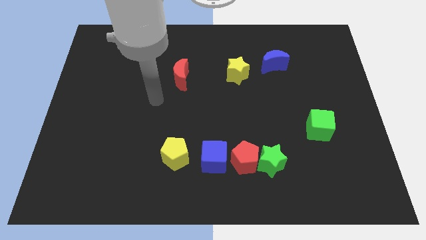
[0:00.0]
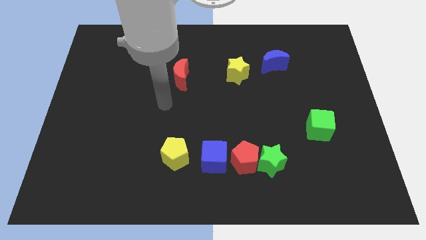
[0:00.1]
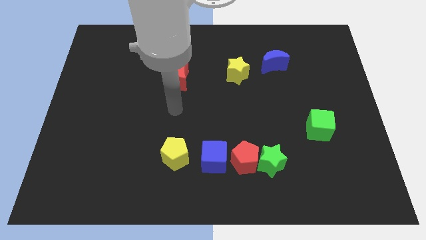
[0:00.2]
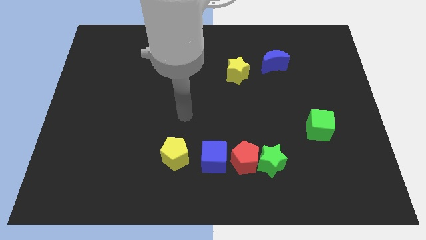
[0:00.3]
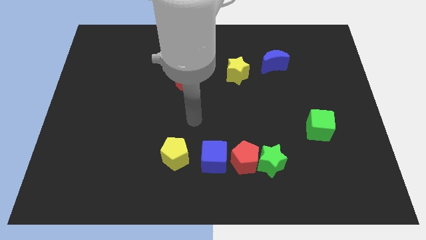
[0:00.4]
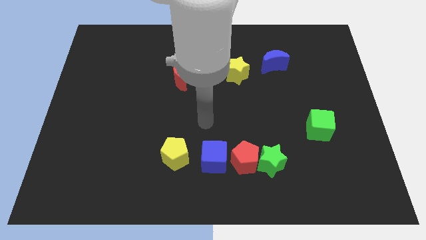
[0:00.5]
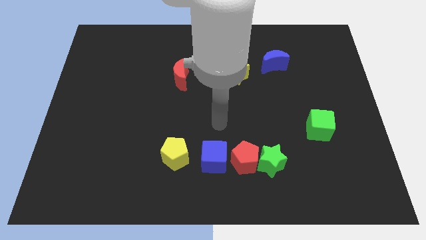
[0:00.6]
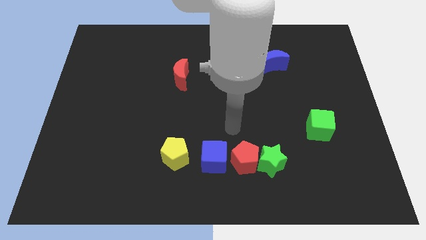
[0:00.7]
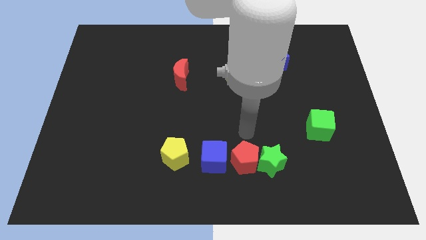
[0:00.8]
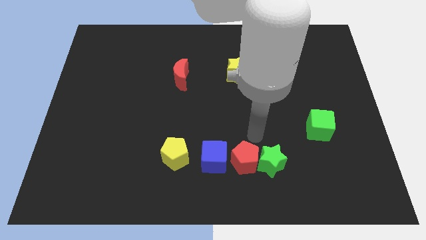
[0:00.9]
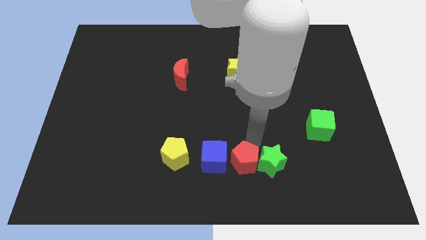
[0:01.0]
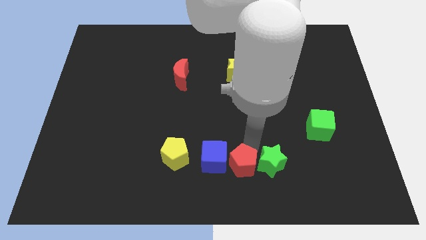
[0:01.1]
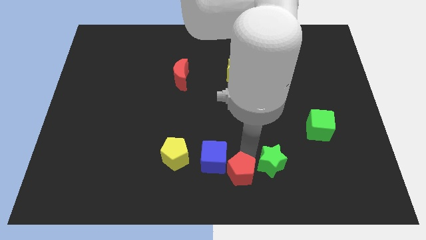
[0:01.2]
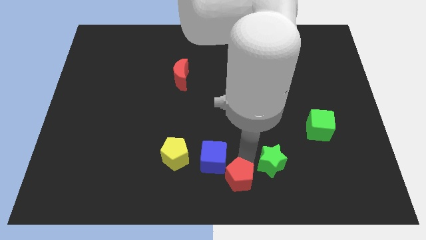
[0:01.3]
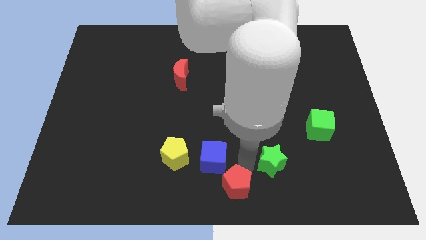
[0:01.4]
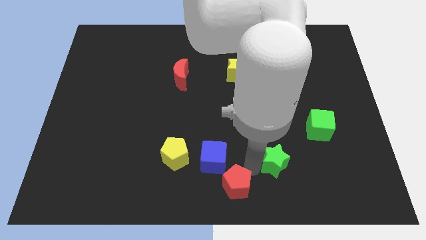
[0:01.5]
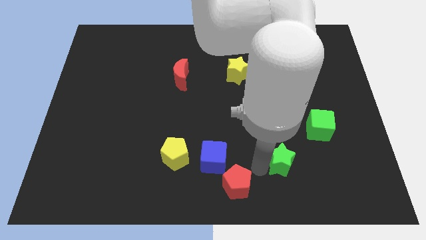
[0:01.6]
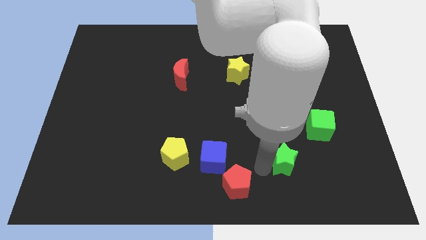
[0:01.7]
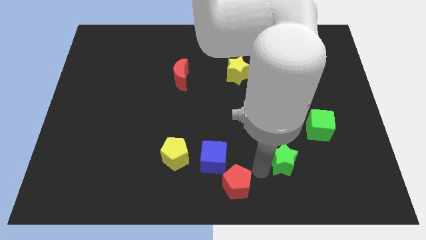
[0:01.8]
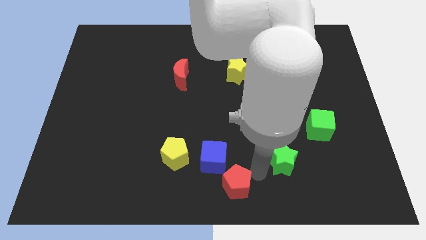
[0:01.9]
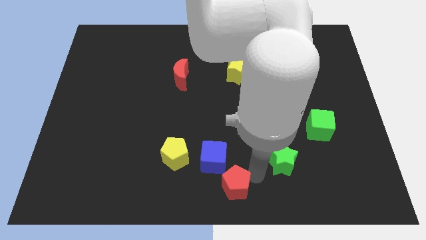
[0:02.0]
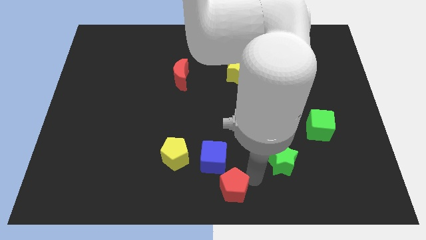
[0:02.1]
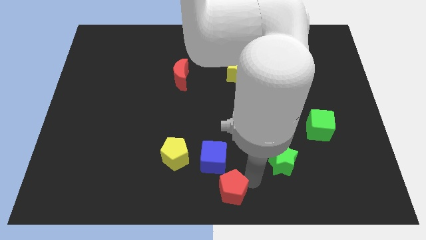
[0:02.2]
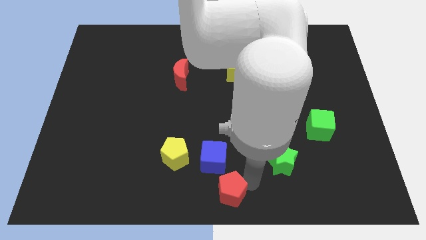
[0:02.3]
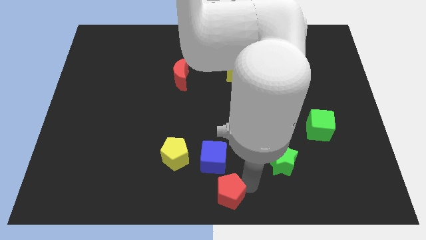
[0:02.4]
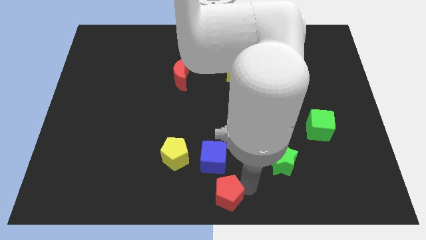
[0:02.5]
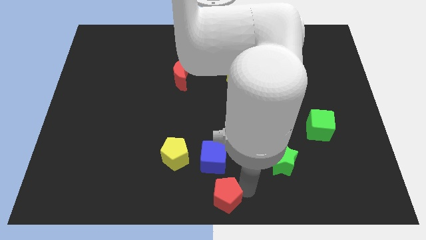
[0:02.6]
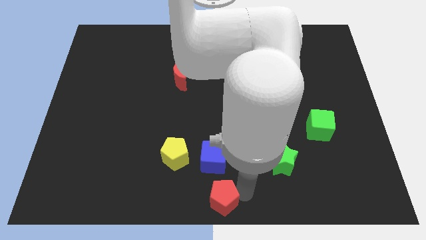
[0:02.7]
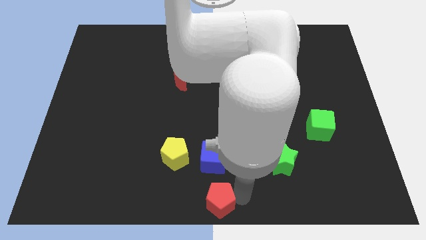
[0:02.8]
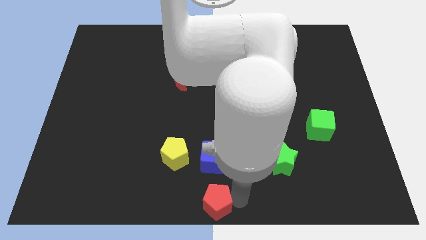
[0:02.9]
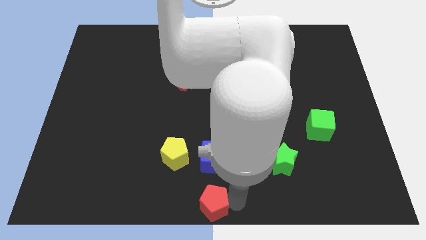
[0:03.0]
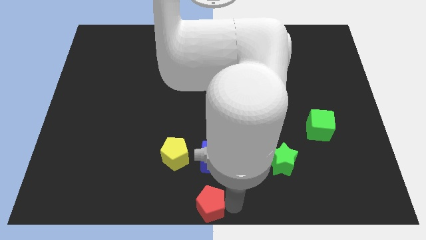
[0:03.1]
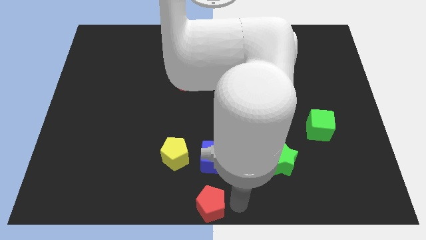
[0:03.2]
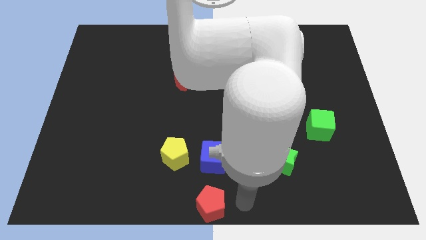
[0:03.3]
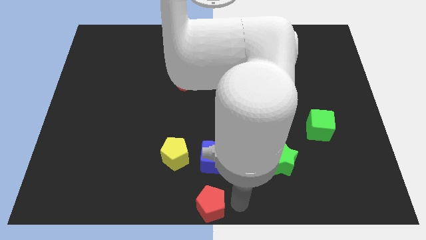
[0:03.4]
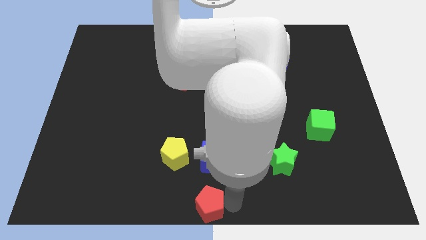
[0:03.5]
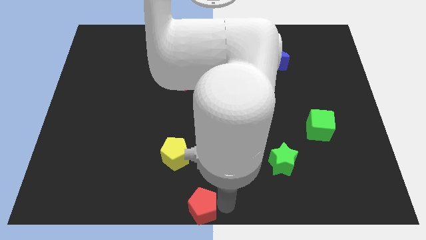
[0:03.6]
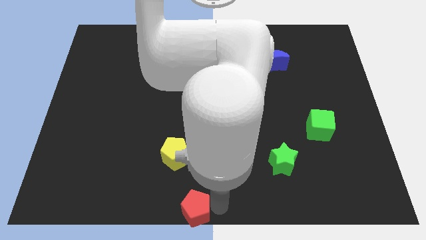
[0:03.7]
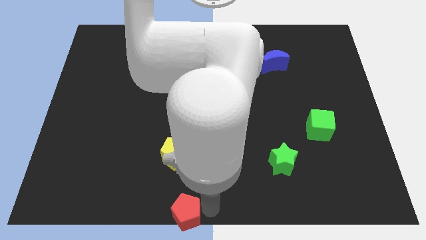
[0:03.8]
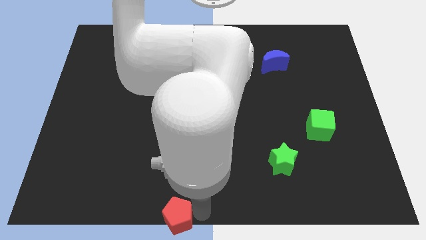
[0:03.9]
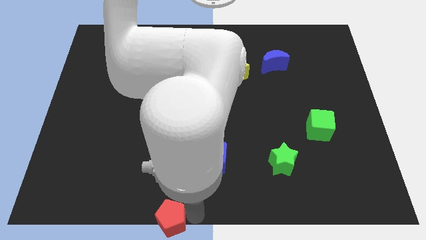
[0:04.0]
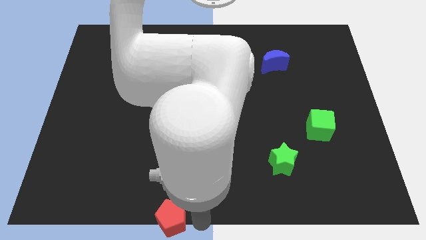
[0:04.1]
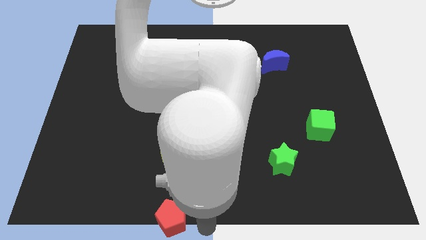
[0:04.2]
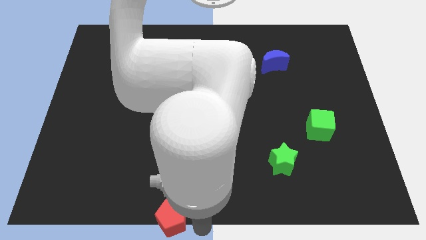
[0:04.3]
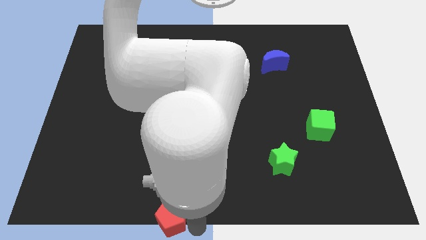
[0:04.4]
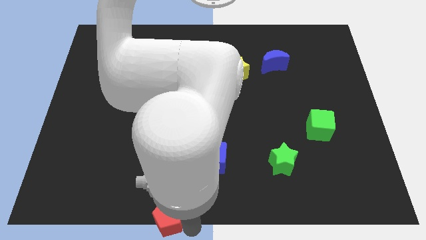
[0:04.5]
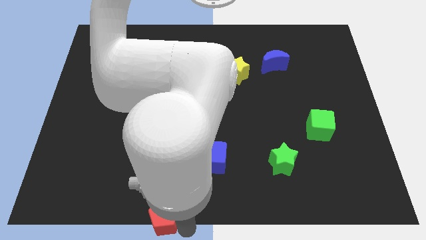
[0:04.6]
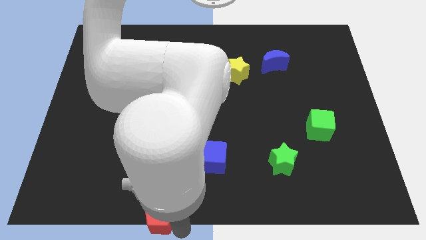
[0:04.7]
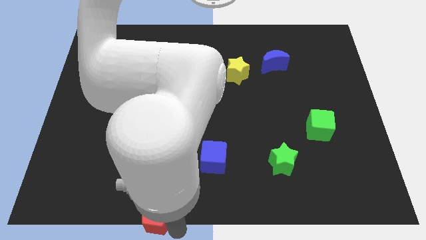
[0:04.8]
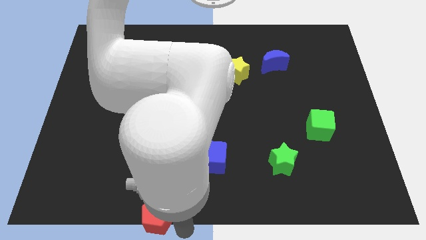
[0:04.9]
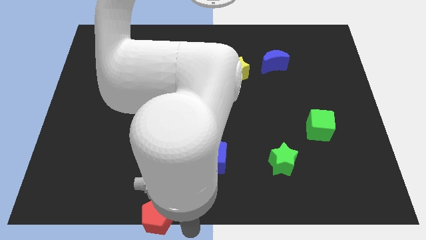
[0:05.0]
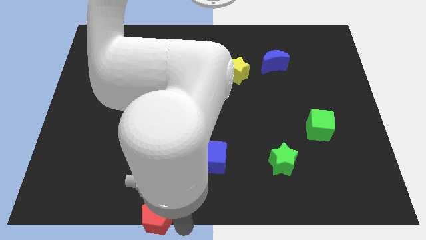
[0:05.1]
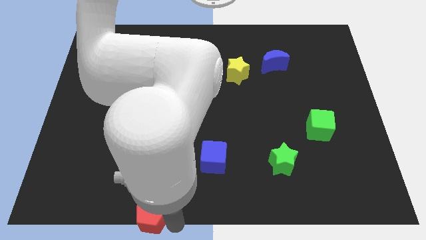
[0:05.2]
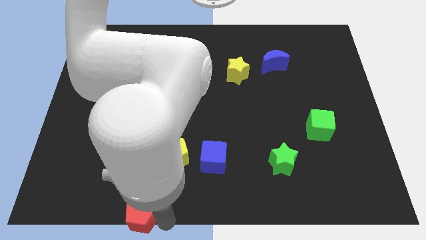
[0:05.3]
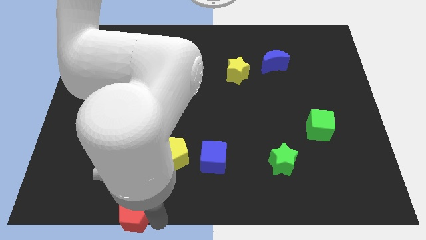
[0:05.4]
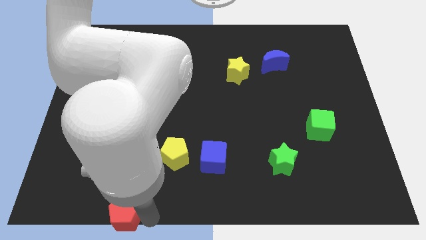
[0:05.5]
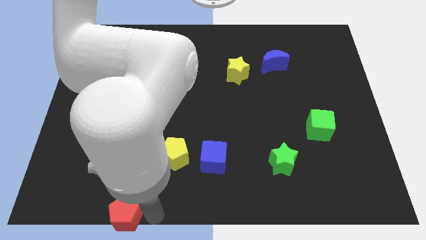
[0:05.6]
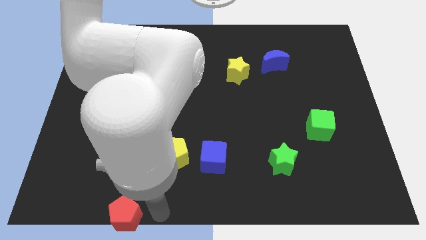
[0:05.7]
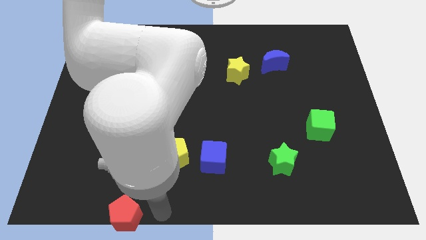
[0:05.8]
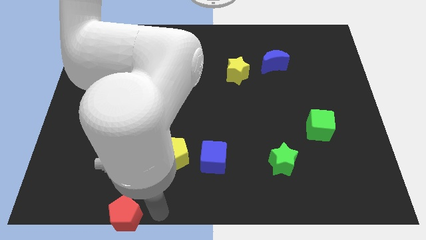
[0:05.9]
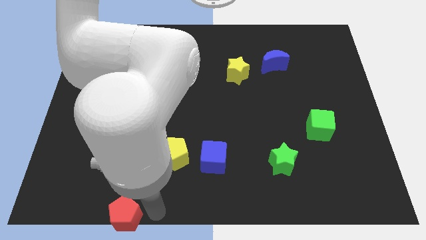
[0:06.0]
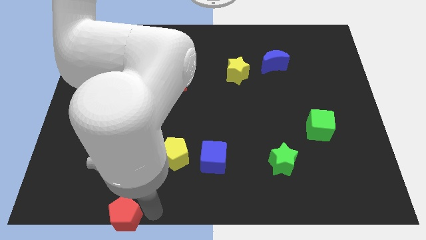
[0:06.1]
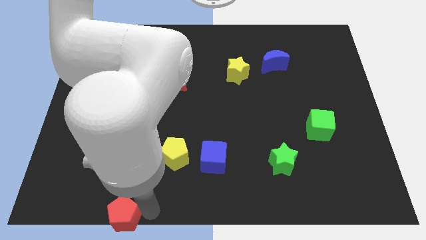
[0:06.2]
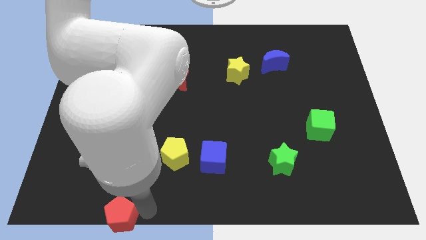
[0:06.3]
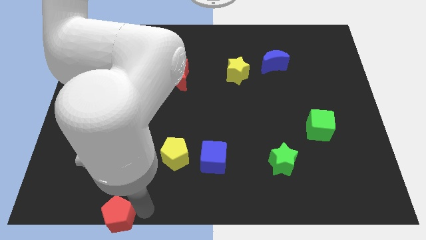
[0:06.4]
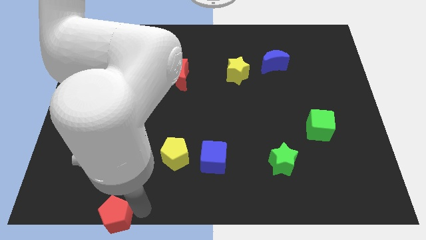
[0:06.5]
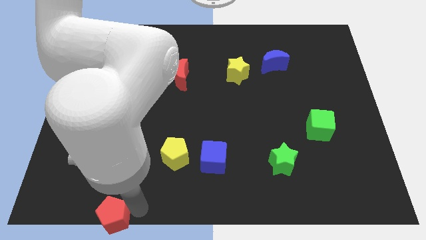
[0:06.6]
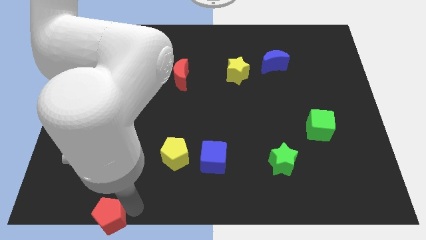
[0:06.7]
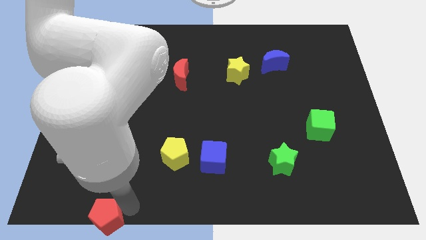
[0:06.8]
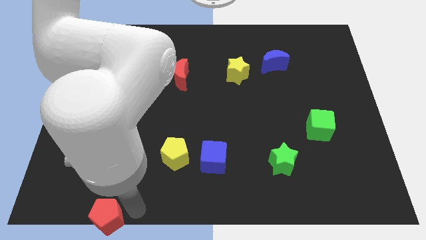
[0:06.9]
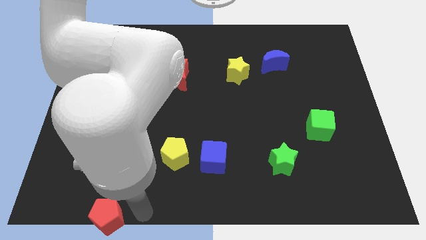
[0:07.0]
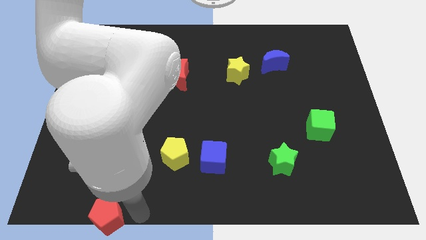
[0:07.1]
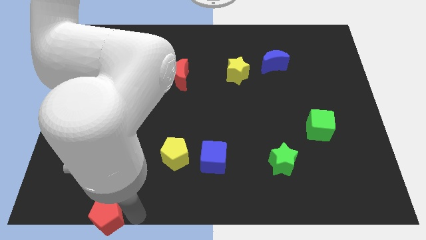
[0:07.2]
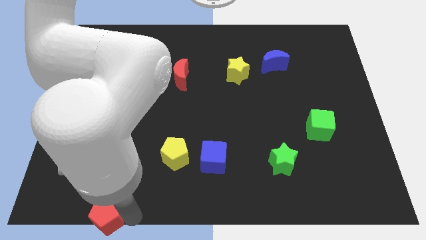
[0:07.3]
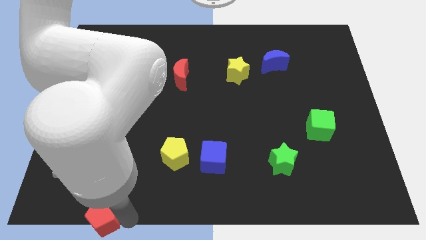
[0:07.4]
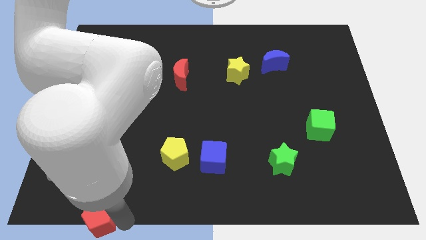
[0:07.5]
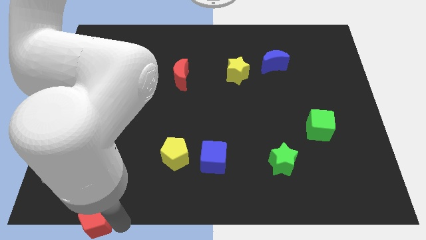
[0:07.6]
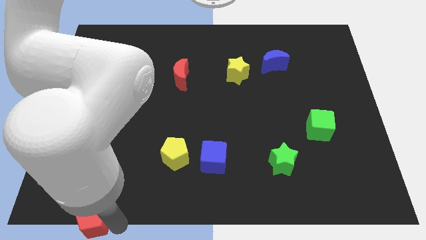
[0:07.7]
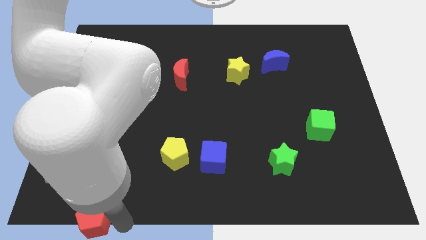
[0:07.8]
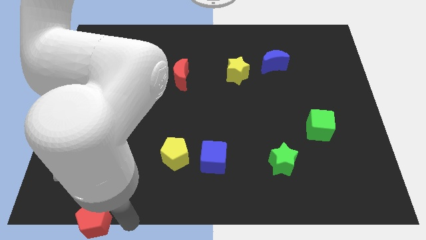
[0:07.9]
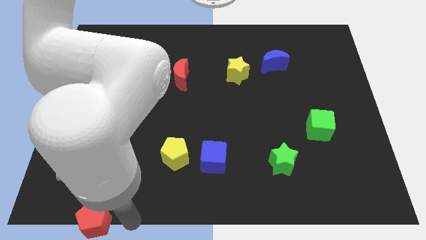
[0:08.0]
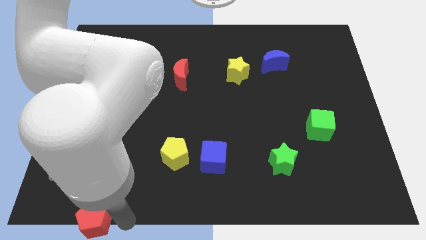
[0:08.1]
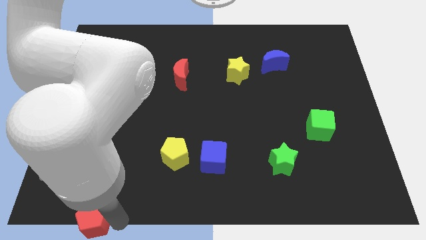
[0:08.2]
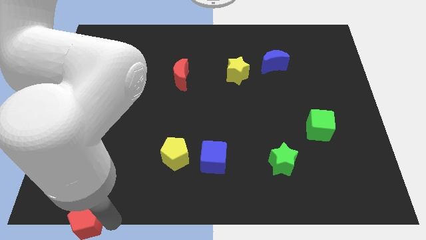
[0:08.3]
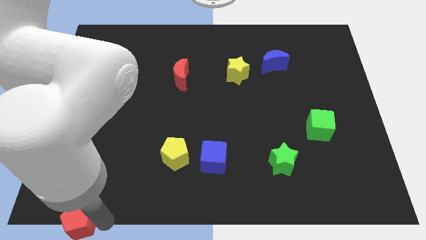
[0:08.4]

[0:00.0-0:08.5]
put the red pentagon to the bottom left
